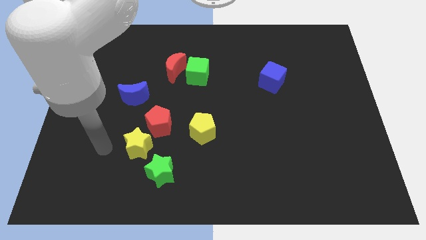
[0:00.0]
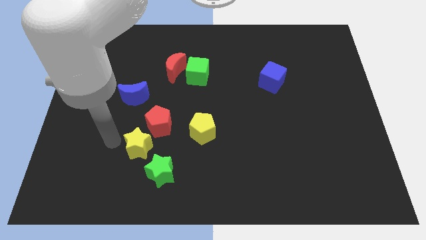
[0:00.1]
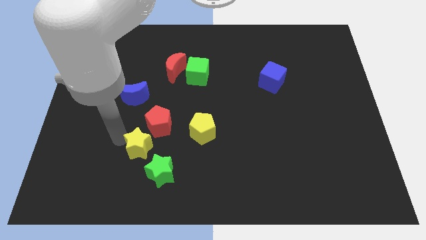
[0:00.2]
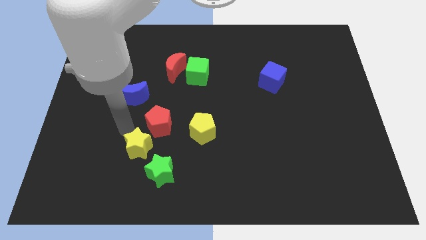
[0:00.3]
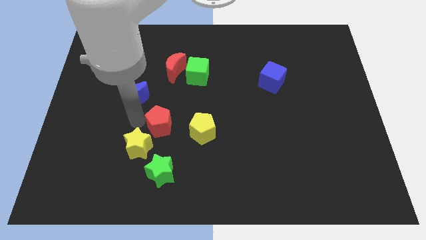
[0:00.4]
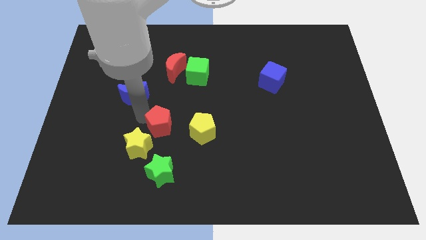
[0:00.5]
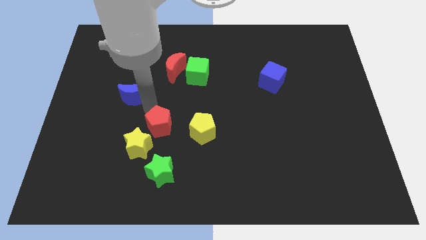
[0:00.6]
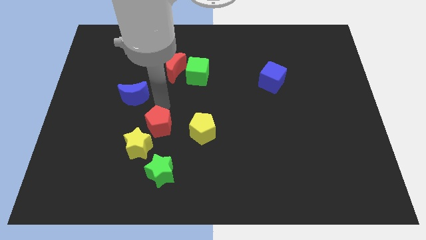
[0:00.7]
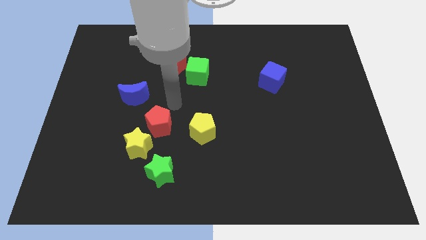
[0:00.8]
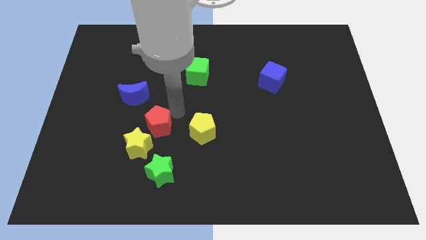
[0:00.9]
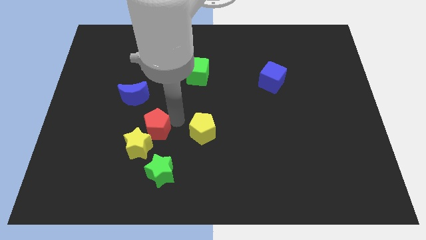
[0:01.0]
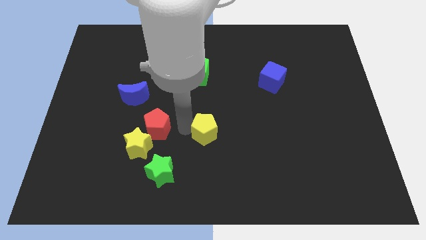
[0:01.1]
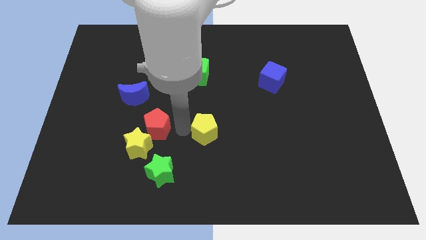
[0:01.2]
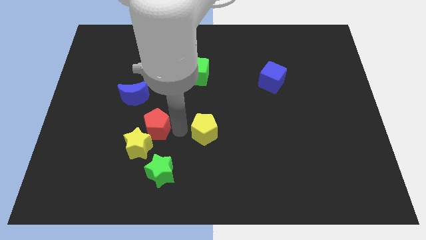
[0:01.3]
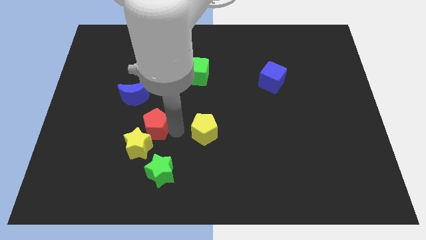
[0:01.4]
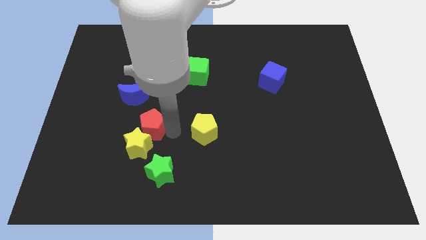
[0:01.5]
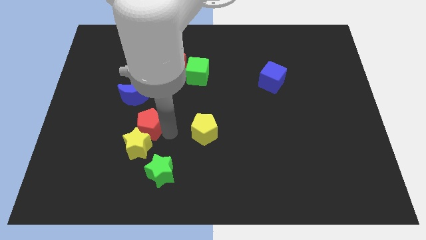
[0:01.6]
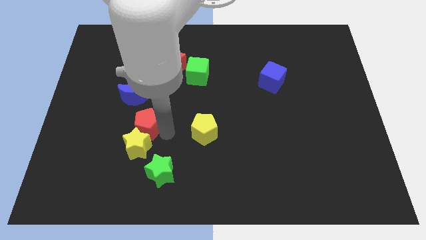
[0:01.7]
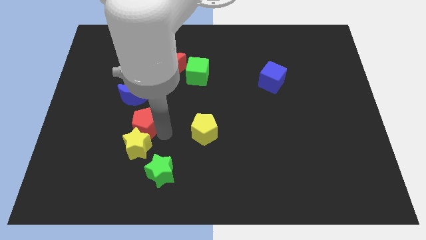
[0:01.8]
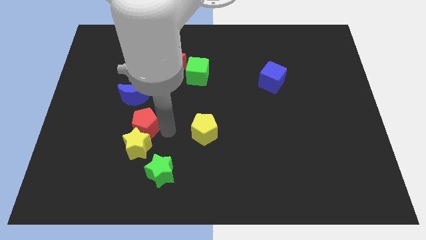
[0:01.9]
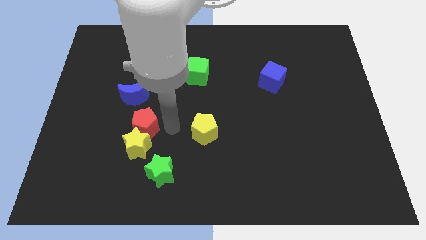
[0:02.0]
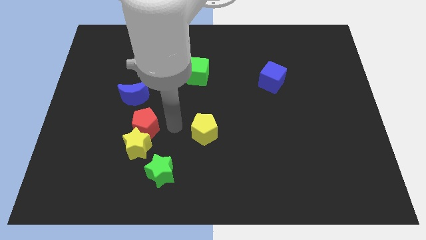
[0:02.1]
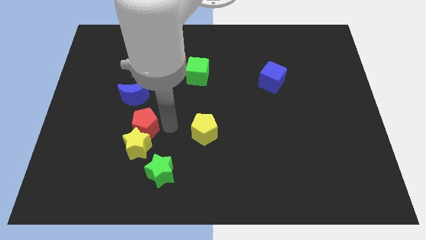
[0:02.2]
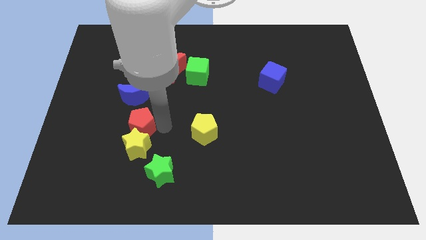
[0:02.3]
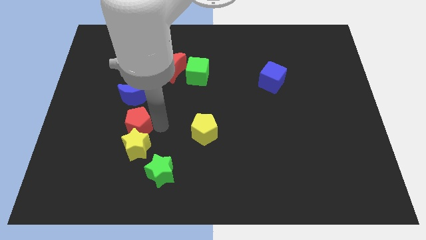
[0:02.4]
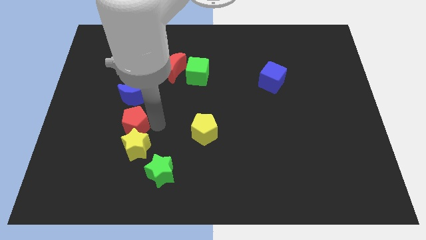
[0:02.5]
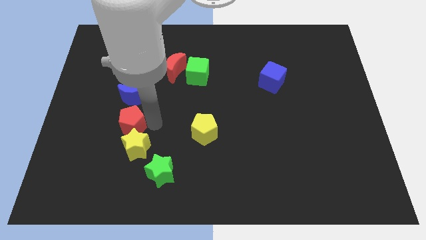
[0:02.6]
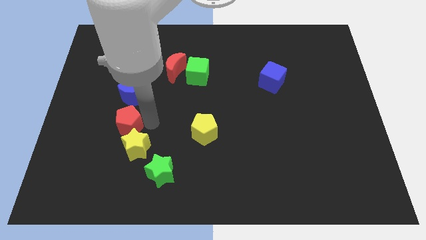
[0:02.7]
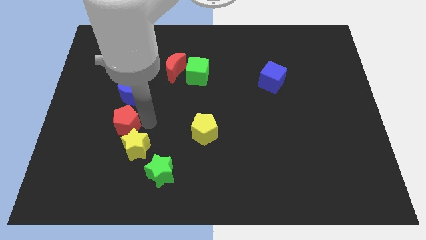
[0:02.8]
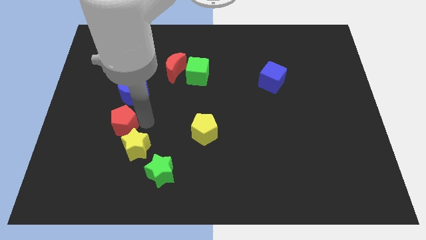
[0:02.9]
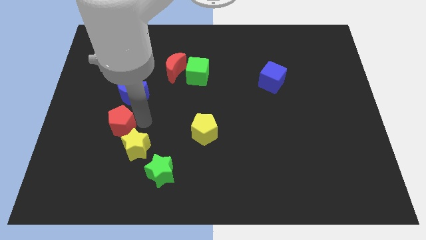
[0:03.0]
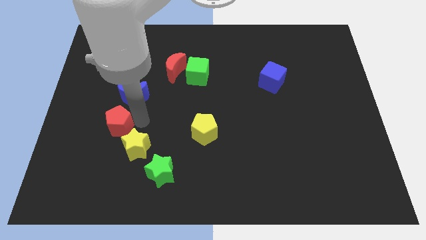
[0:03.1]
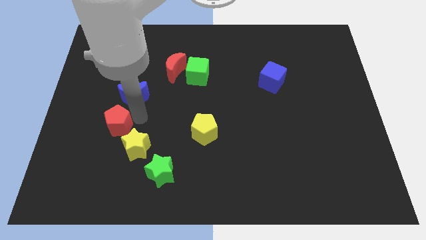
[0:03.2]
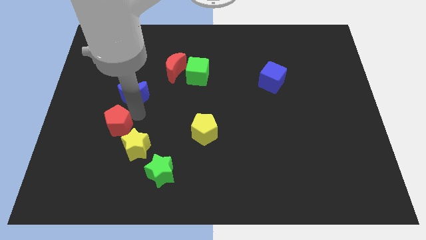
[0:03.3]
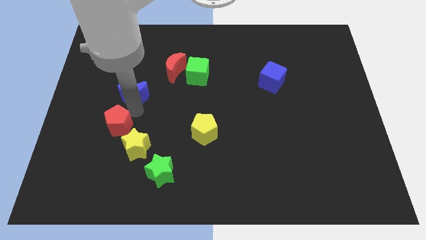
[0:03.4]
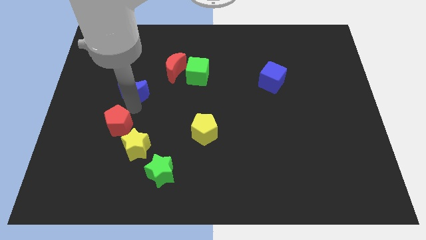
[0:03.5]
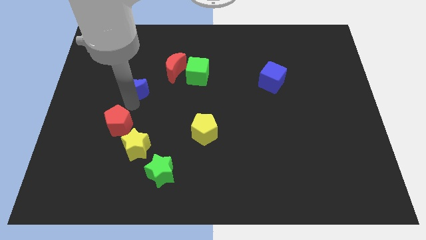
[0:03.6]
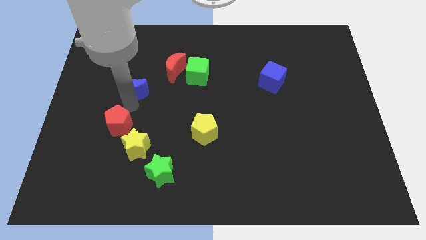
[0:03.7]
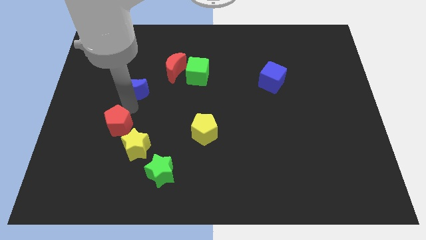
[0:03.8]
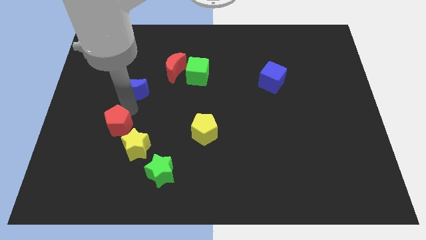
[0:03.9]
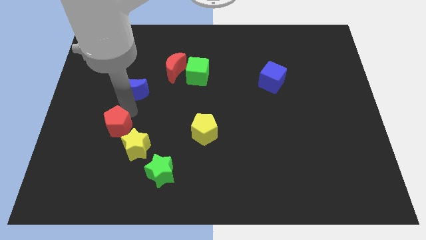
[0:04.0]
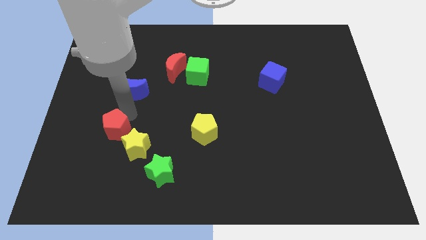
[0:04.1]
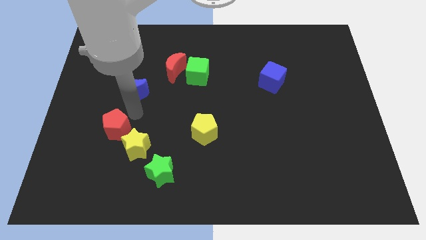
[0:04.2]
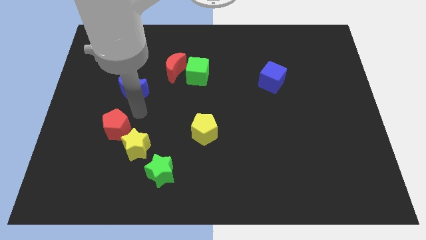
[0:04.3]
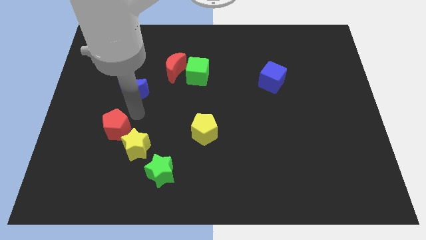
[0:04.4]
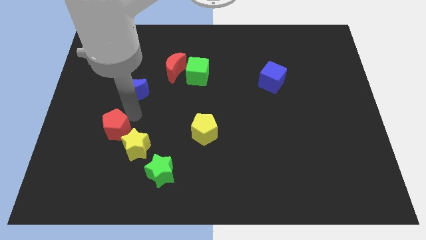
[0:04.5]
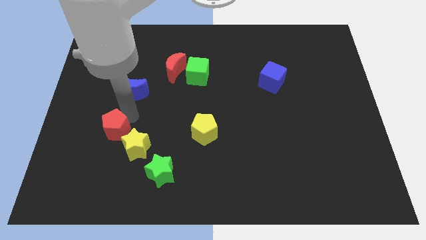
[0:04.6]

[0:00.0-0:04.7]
move the red pentagon left of the yellow star

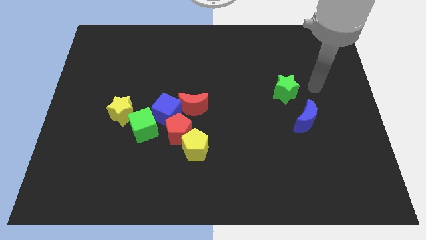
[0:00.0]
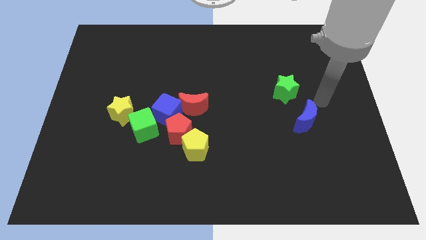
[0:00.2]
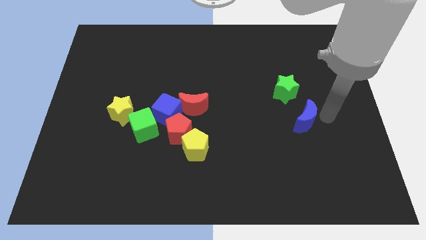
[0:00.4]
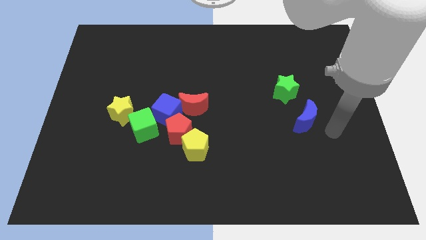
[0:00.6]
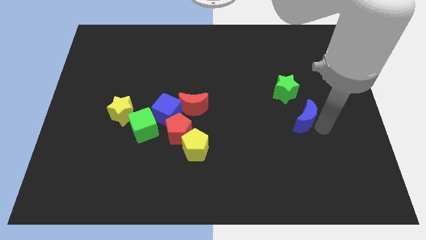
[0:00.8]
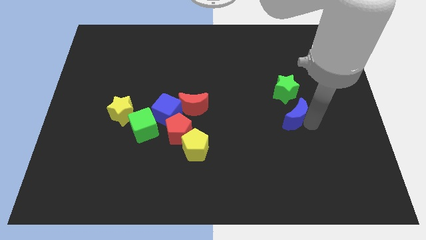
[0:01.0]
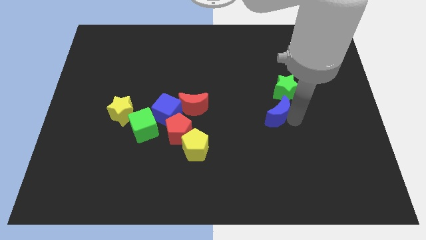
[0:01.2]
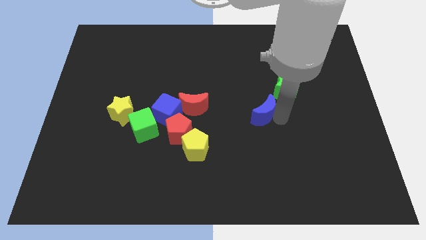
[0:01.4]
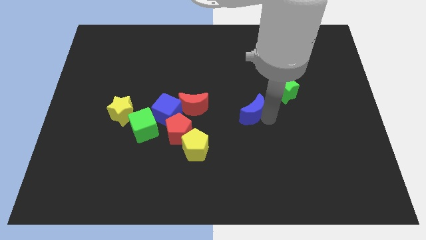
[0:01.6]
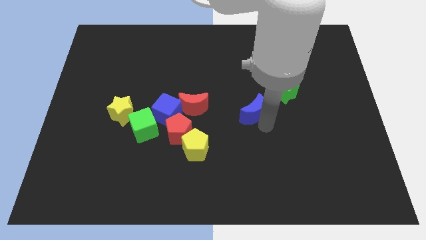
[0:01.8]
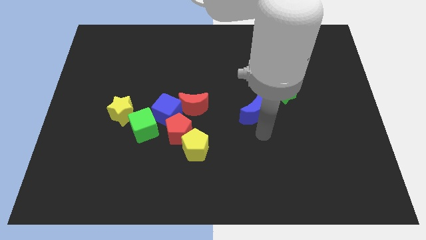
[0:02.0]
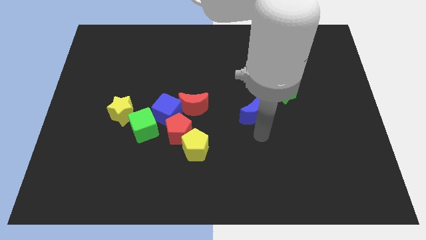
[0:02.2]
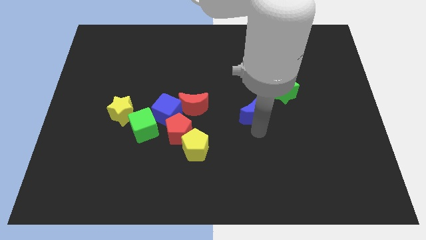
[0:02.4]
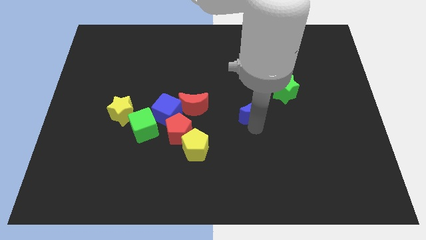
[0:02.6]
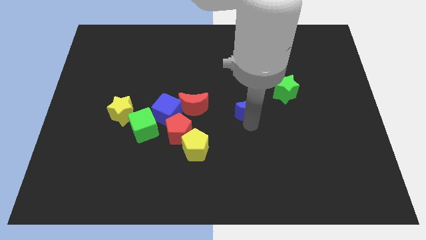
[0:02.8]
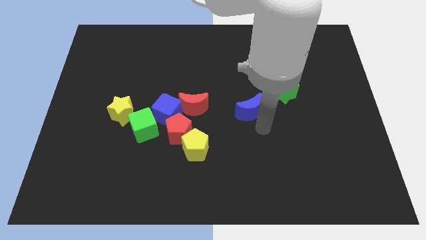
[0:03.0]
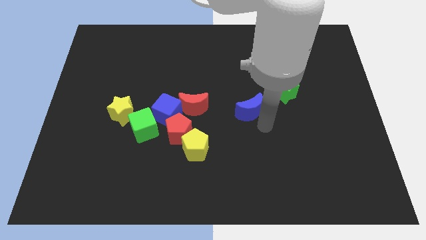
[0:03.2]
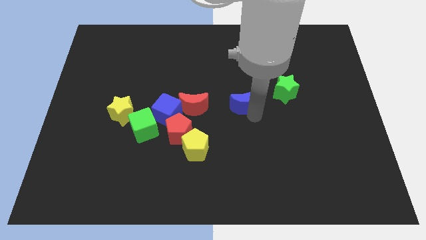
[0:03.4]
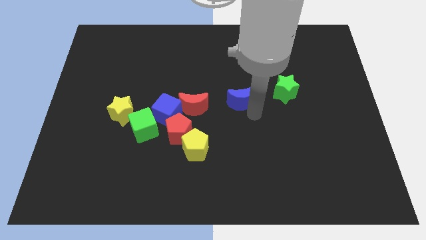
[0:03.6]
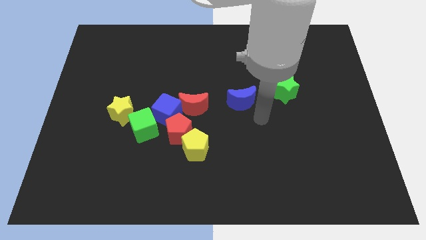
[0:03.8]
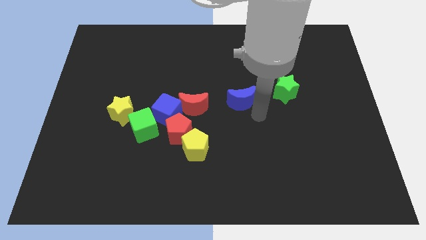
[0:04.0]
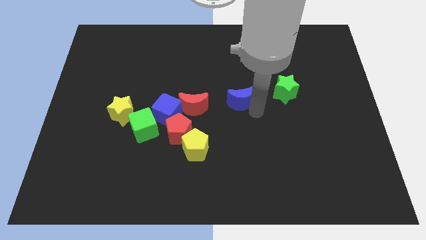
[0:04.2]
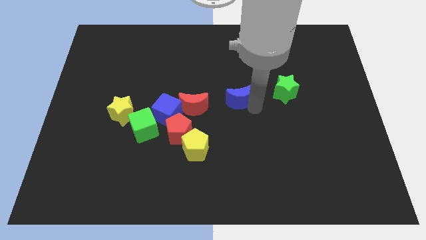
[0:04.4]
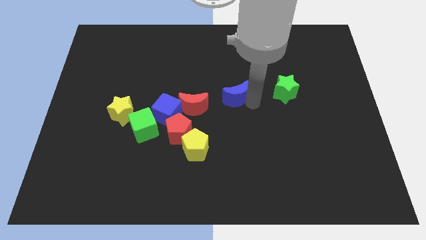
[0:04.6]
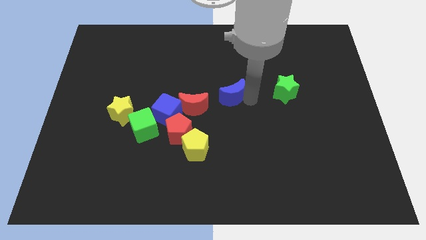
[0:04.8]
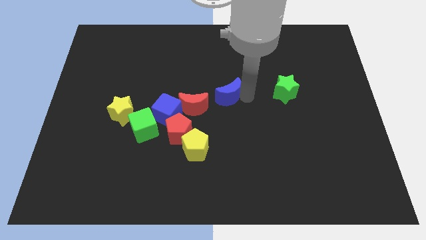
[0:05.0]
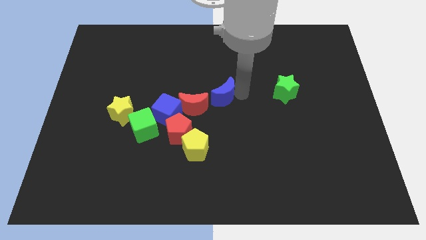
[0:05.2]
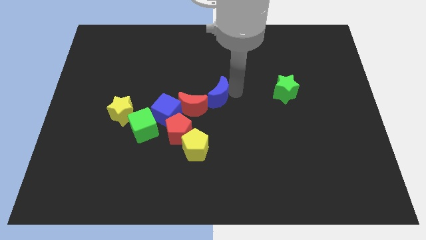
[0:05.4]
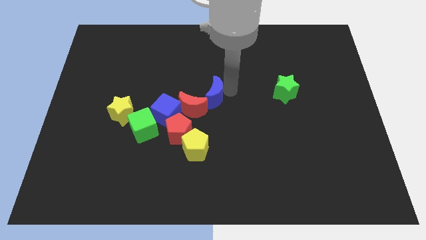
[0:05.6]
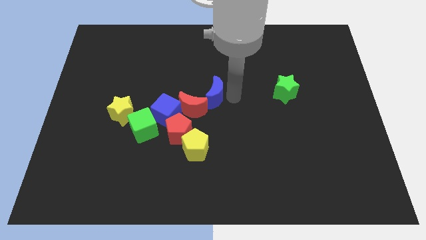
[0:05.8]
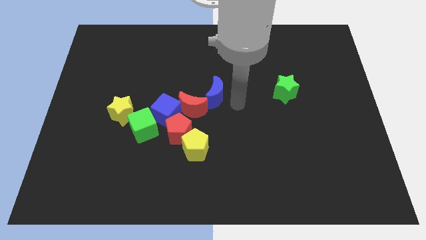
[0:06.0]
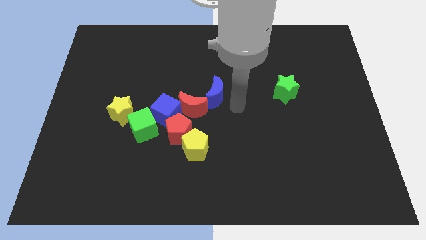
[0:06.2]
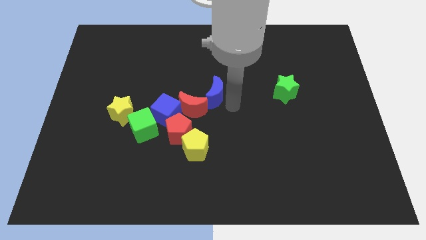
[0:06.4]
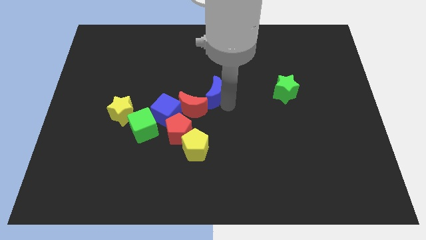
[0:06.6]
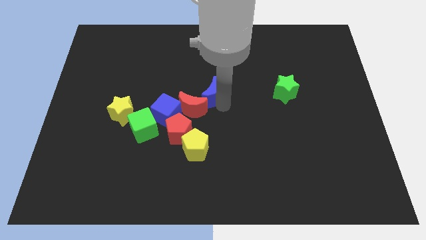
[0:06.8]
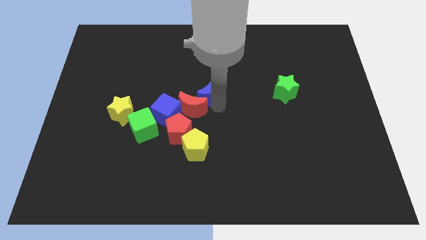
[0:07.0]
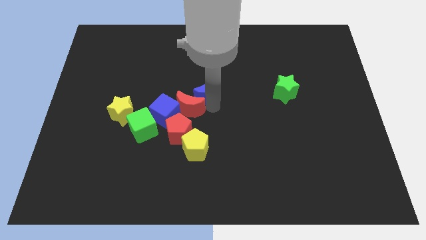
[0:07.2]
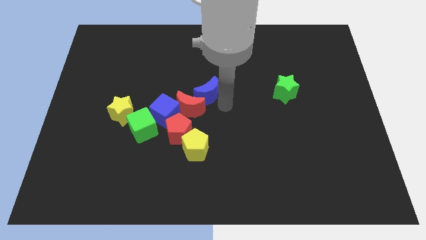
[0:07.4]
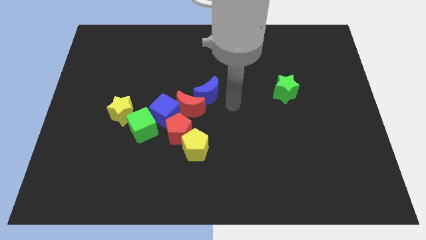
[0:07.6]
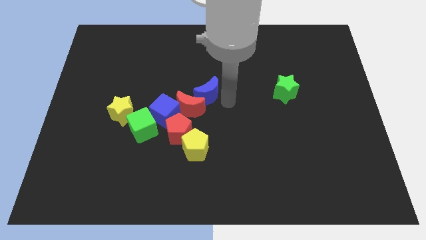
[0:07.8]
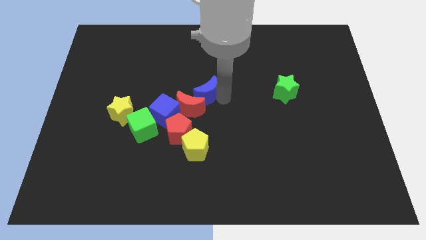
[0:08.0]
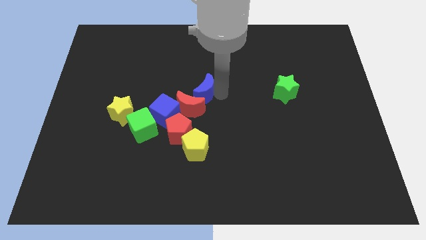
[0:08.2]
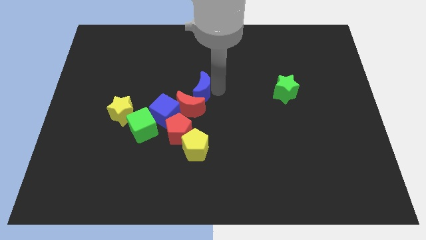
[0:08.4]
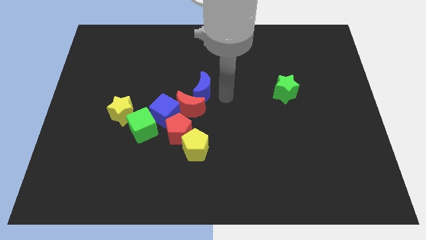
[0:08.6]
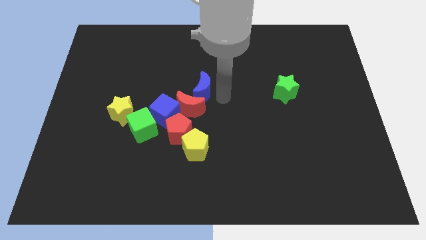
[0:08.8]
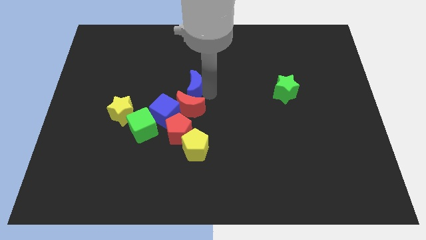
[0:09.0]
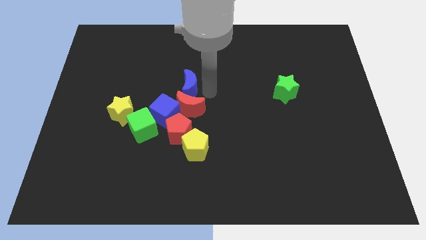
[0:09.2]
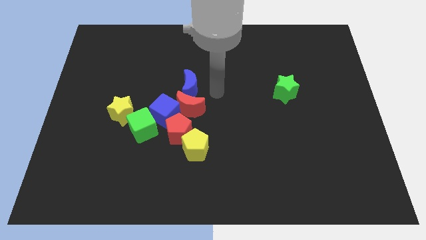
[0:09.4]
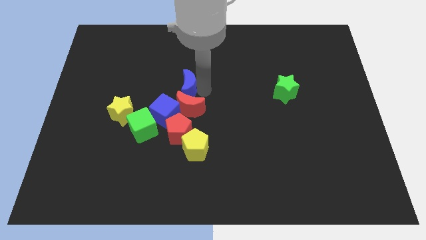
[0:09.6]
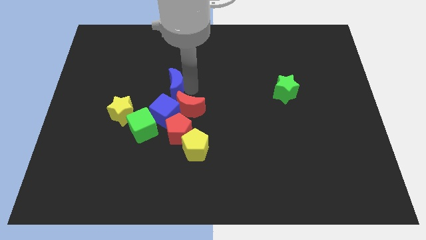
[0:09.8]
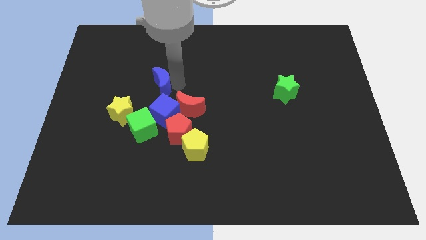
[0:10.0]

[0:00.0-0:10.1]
move the blue moon to the top right side of the yellow star
